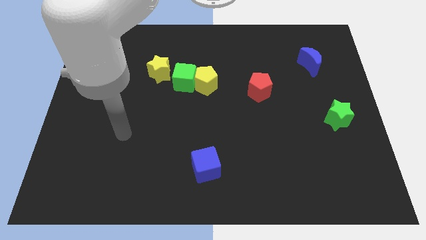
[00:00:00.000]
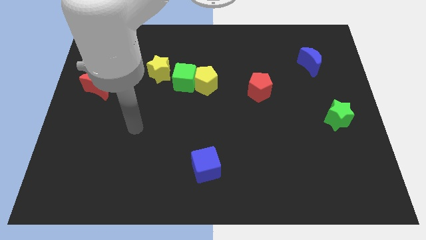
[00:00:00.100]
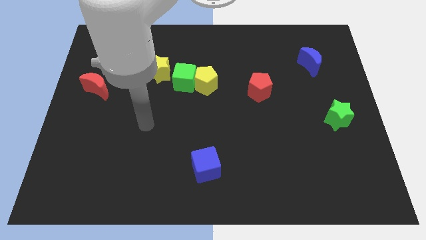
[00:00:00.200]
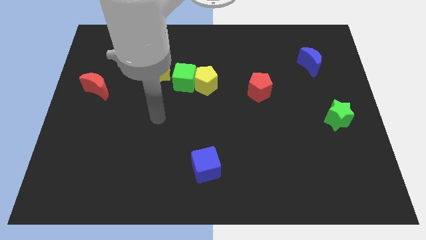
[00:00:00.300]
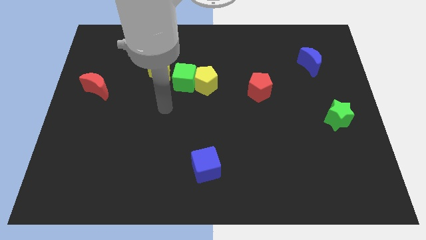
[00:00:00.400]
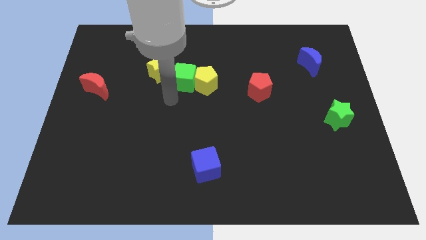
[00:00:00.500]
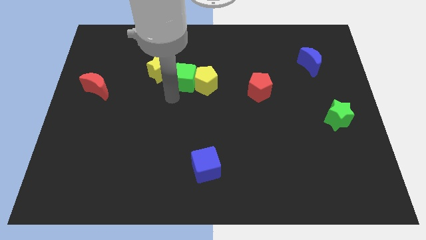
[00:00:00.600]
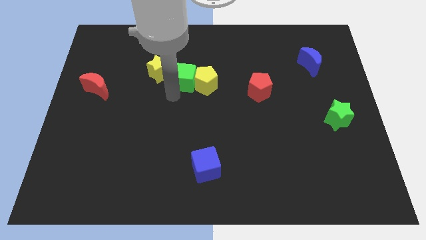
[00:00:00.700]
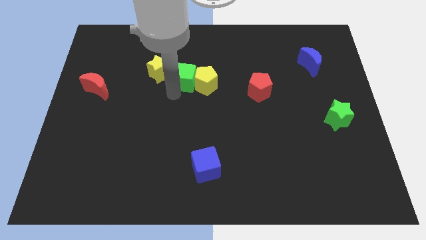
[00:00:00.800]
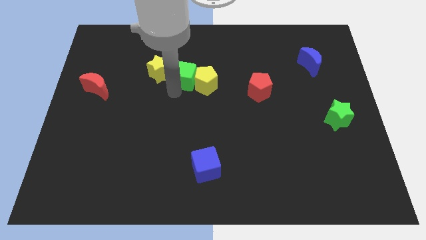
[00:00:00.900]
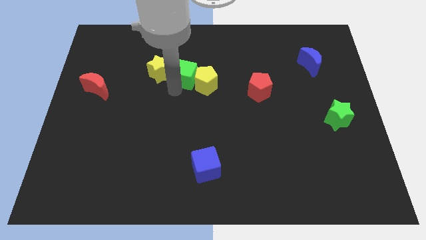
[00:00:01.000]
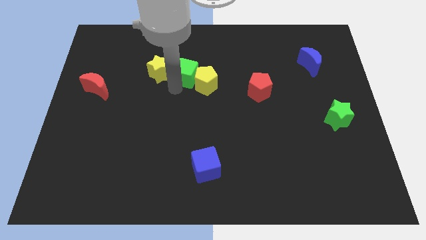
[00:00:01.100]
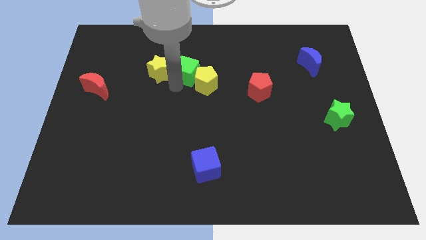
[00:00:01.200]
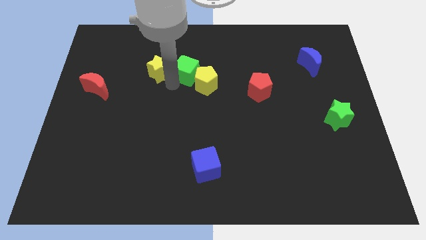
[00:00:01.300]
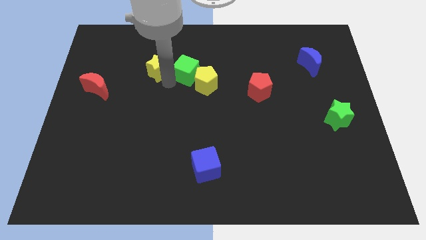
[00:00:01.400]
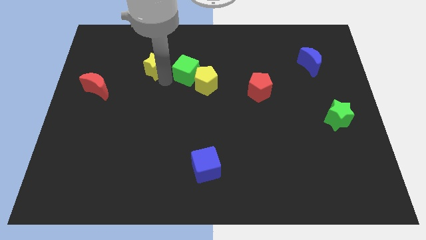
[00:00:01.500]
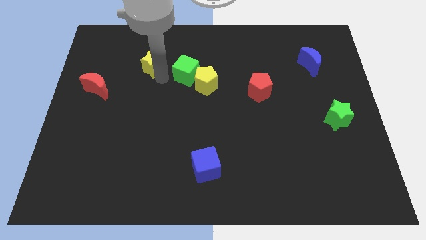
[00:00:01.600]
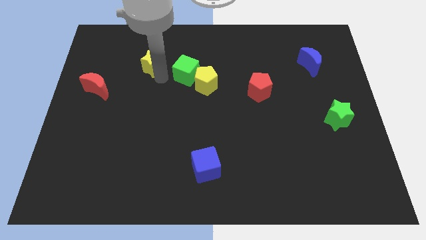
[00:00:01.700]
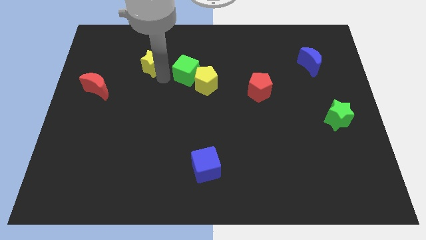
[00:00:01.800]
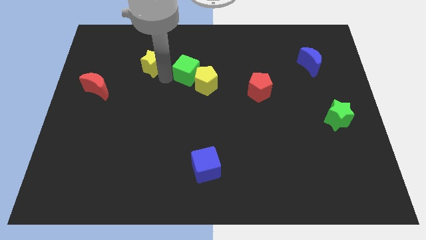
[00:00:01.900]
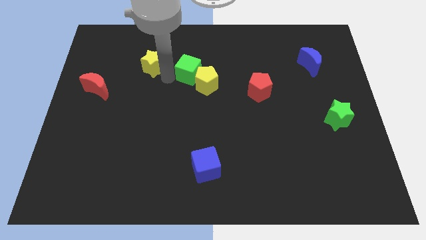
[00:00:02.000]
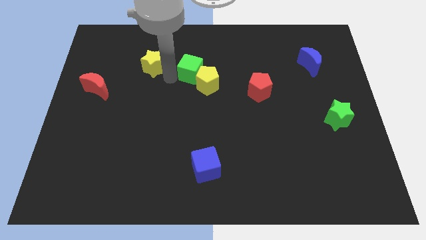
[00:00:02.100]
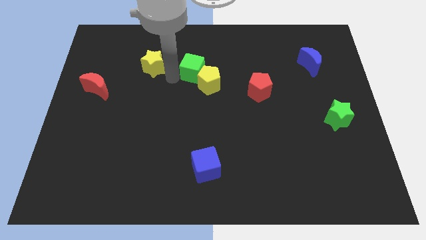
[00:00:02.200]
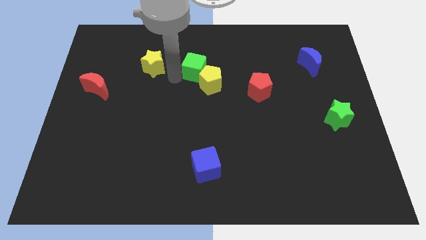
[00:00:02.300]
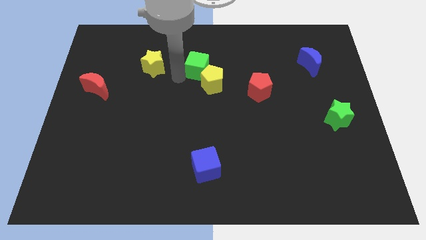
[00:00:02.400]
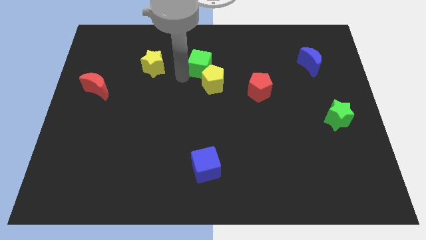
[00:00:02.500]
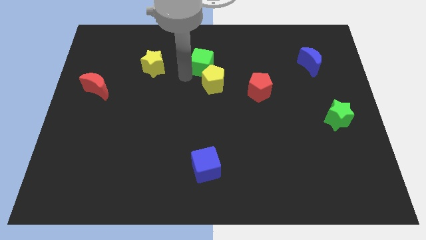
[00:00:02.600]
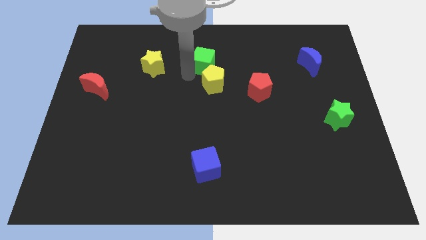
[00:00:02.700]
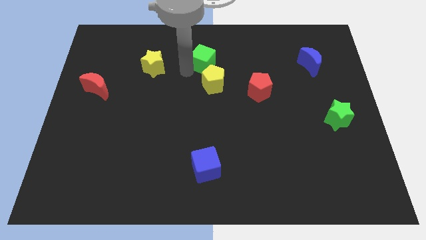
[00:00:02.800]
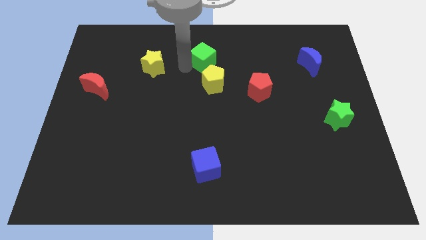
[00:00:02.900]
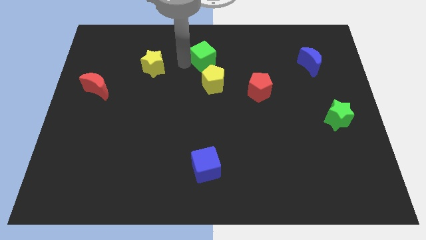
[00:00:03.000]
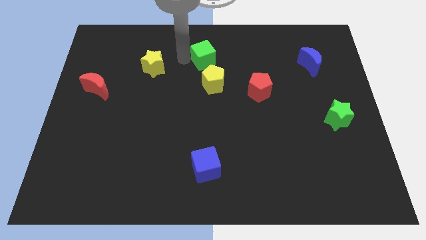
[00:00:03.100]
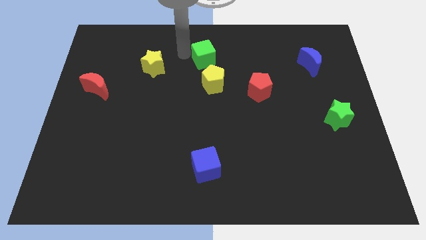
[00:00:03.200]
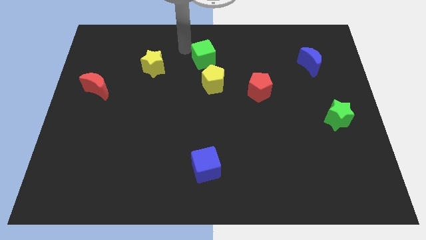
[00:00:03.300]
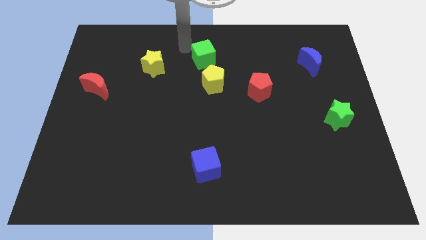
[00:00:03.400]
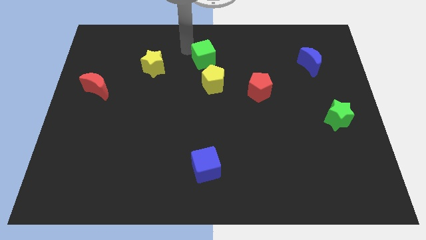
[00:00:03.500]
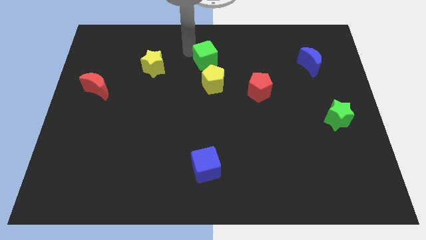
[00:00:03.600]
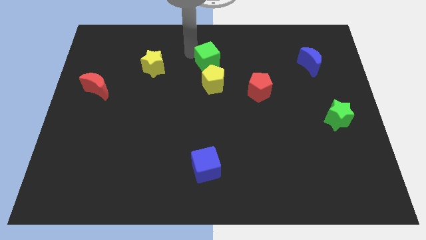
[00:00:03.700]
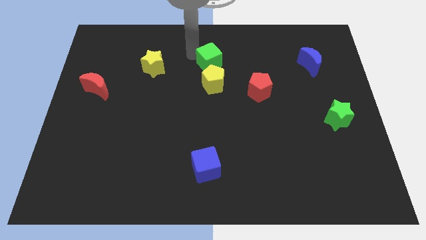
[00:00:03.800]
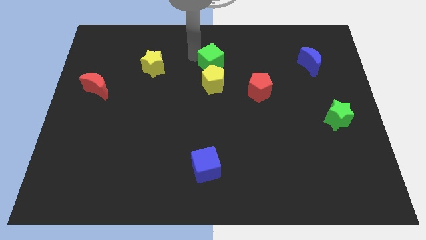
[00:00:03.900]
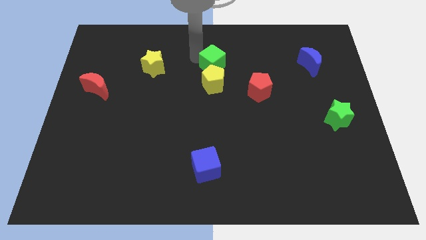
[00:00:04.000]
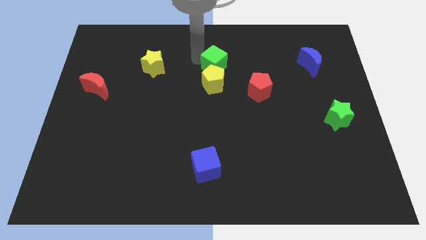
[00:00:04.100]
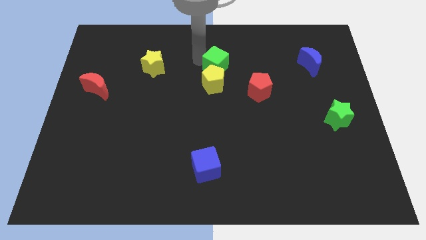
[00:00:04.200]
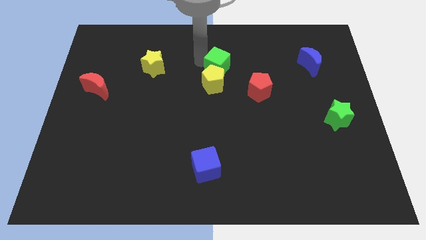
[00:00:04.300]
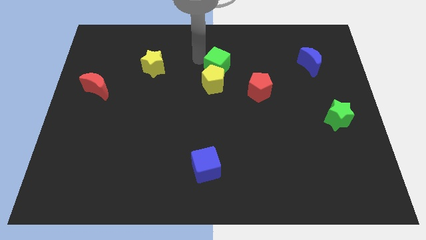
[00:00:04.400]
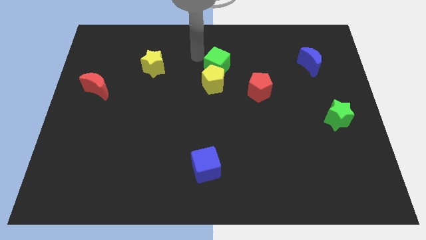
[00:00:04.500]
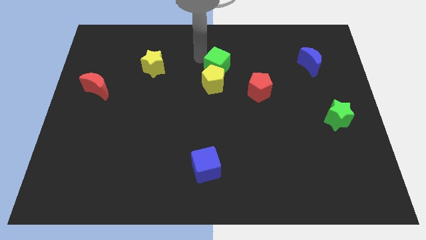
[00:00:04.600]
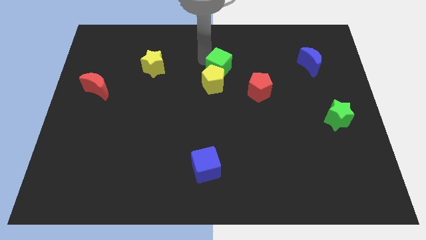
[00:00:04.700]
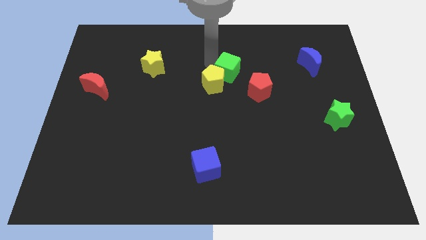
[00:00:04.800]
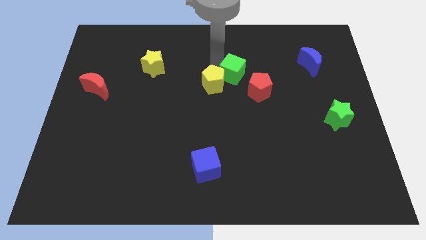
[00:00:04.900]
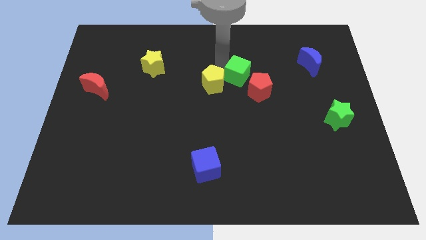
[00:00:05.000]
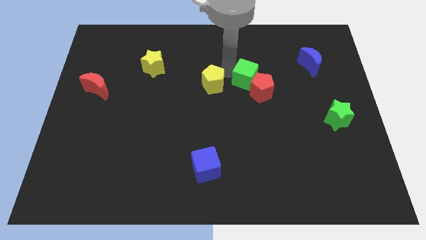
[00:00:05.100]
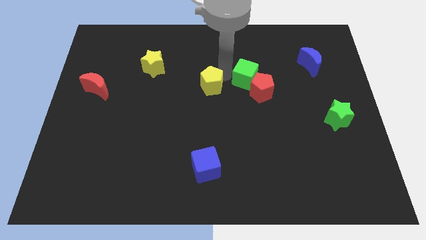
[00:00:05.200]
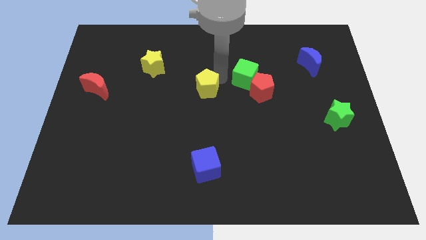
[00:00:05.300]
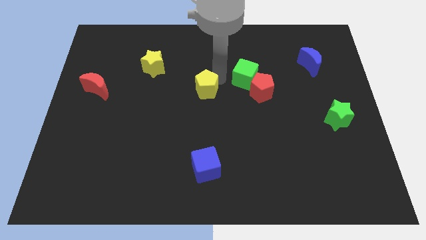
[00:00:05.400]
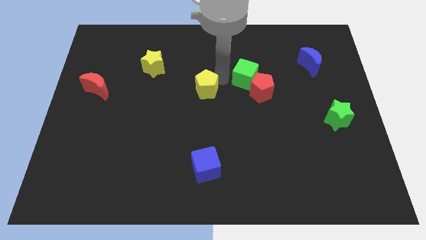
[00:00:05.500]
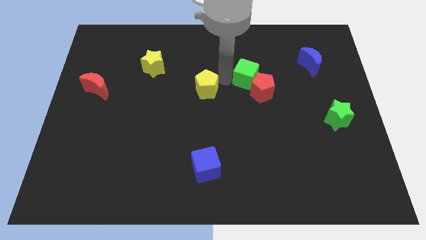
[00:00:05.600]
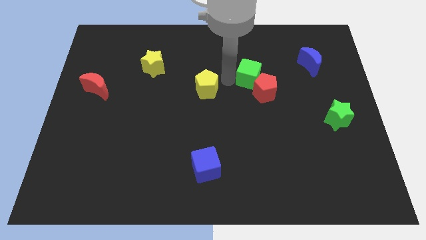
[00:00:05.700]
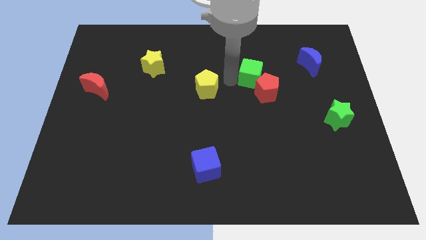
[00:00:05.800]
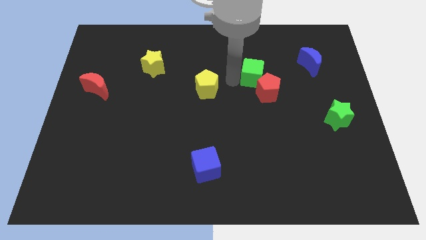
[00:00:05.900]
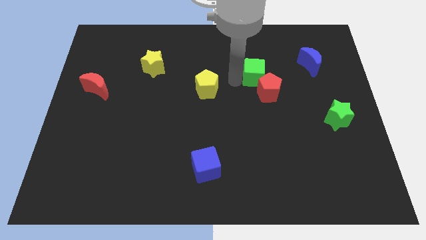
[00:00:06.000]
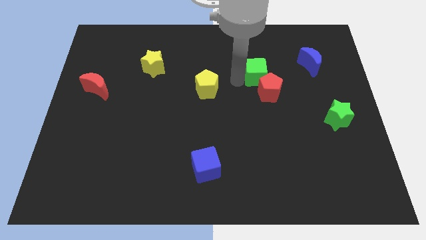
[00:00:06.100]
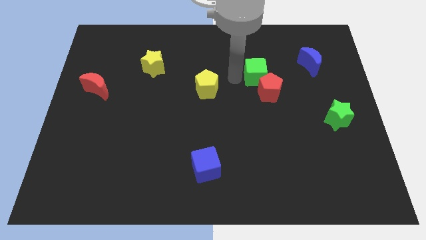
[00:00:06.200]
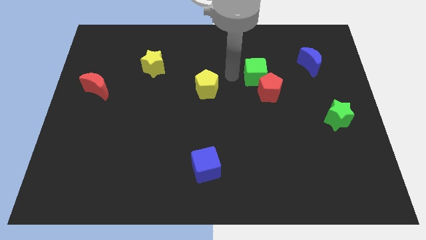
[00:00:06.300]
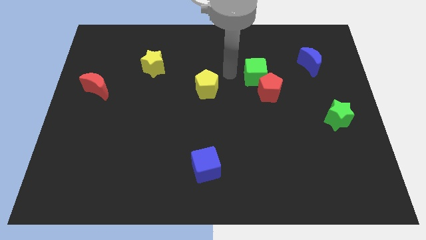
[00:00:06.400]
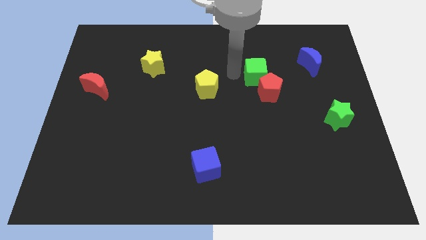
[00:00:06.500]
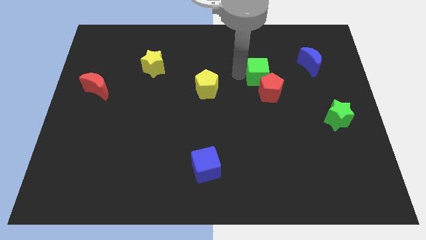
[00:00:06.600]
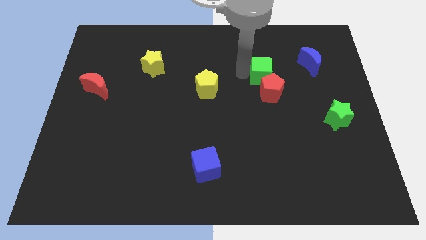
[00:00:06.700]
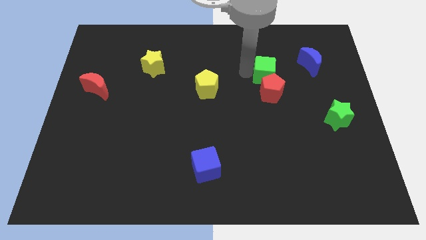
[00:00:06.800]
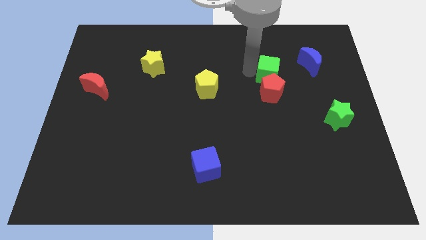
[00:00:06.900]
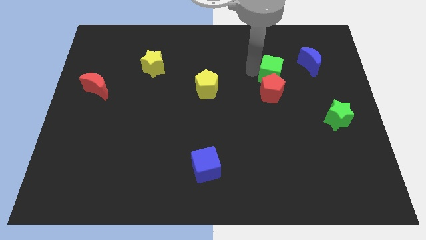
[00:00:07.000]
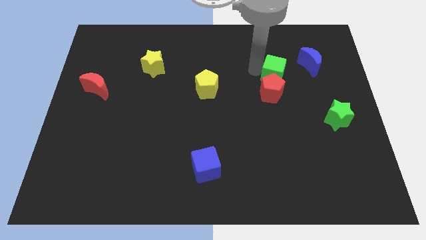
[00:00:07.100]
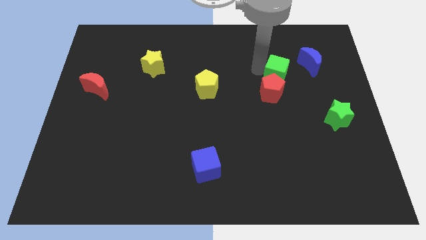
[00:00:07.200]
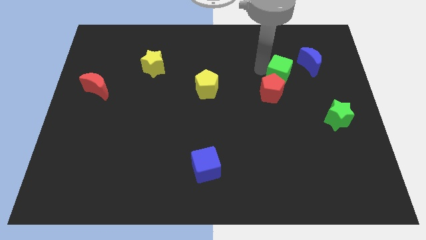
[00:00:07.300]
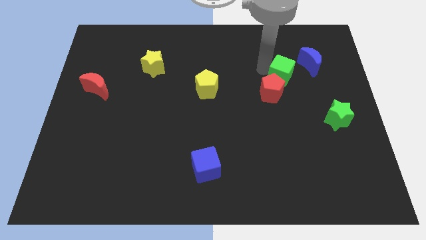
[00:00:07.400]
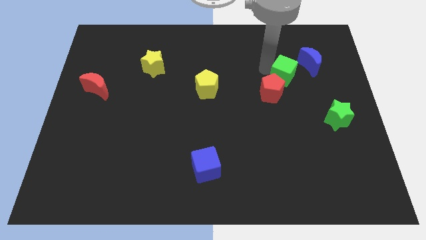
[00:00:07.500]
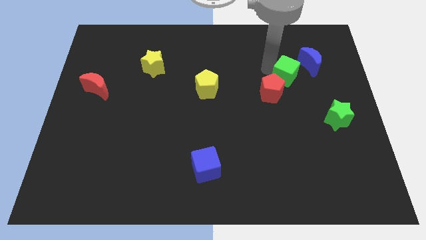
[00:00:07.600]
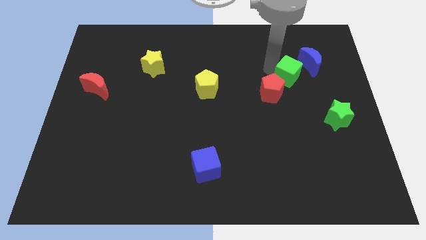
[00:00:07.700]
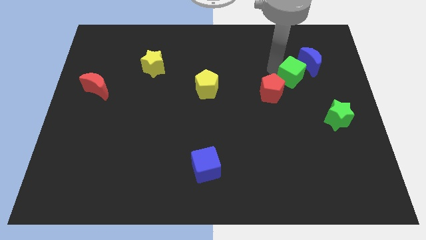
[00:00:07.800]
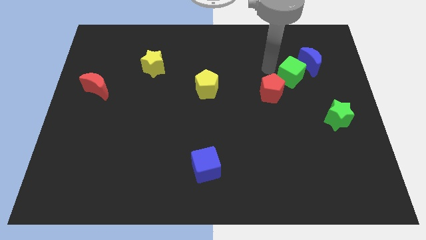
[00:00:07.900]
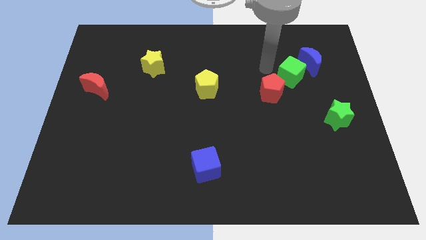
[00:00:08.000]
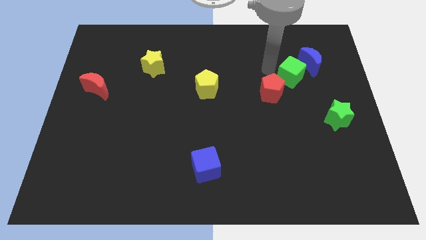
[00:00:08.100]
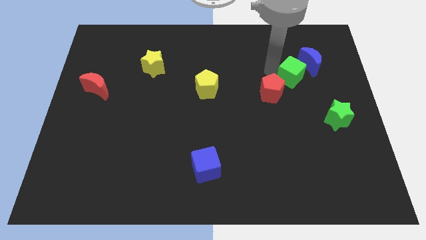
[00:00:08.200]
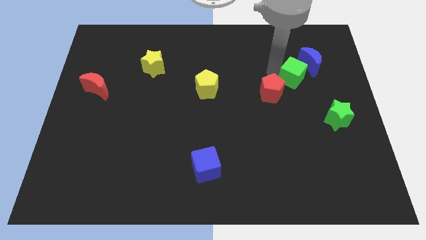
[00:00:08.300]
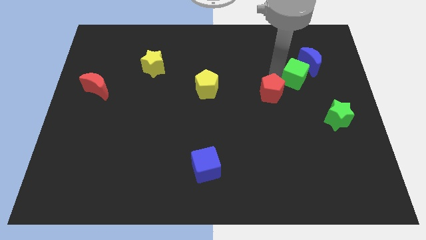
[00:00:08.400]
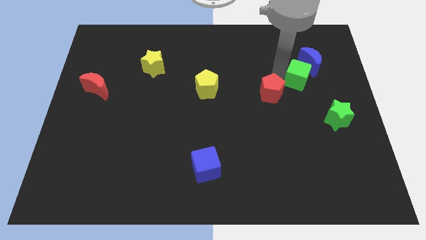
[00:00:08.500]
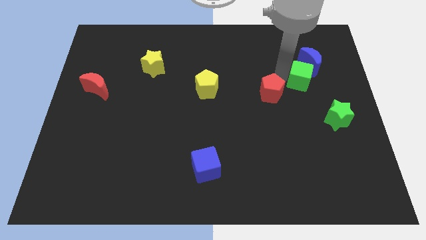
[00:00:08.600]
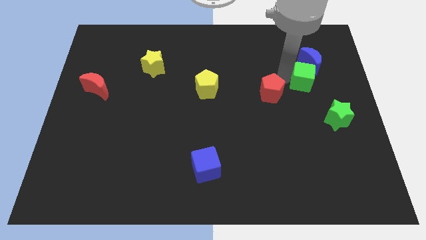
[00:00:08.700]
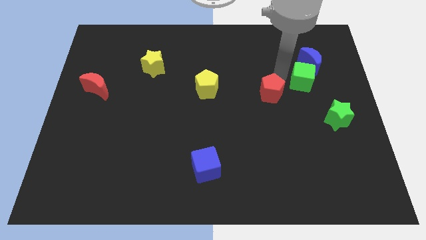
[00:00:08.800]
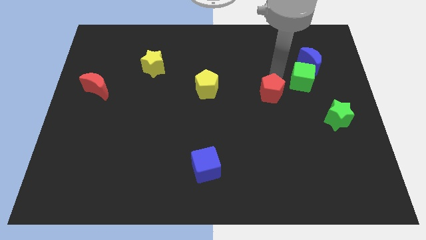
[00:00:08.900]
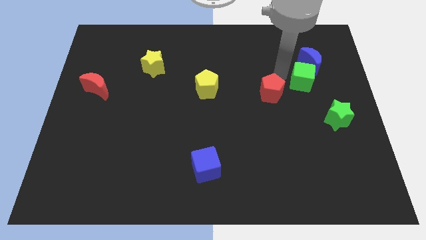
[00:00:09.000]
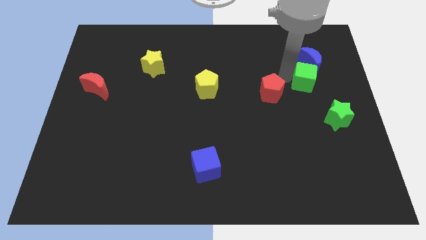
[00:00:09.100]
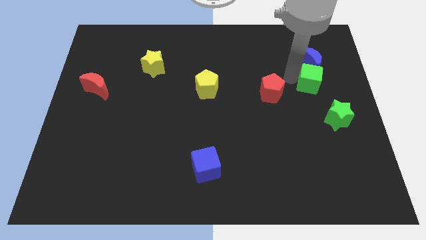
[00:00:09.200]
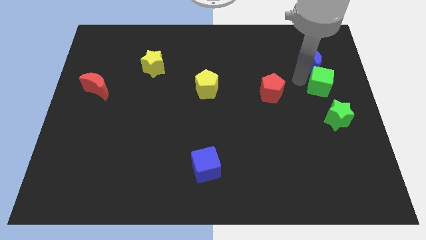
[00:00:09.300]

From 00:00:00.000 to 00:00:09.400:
slide the green cube to the right side of the board
